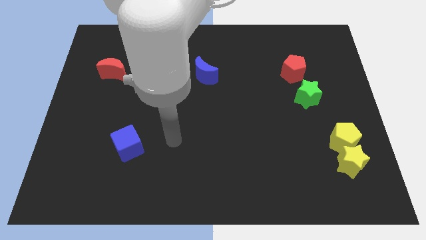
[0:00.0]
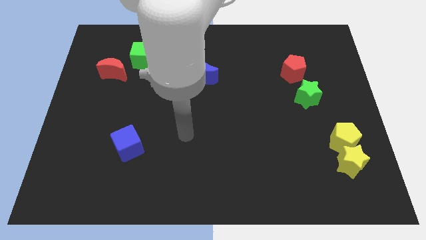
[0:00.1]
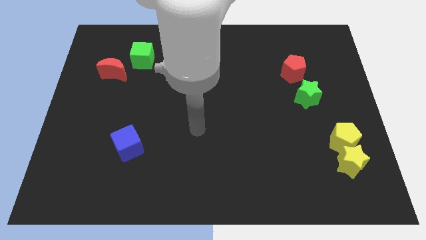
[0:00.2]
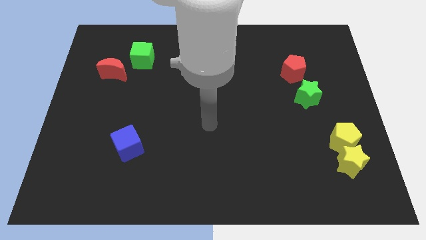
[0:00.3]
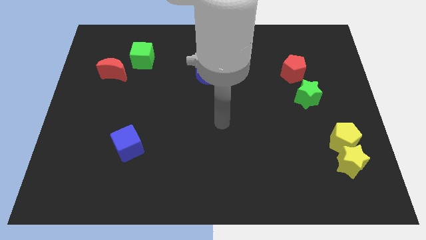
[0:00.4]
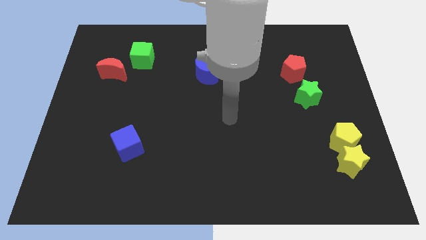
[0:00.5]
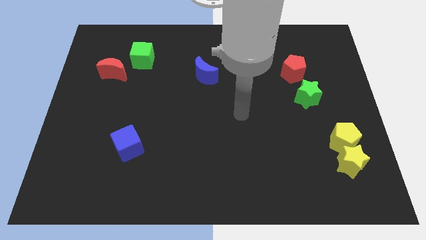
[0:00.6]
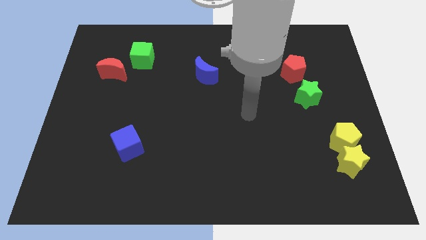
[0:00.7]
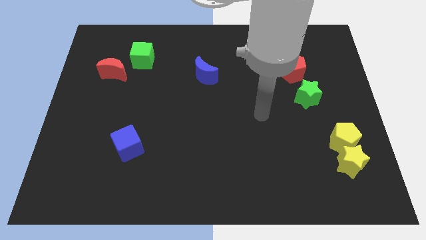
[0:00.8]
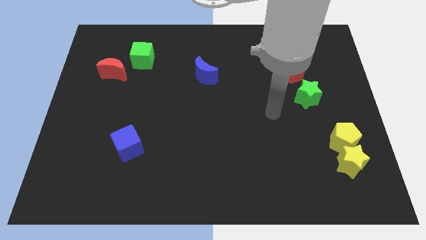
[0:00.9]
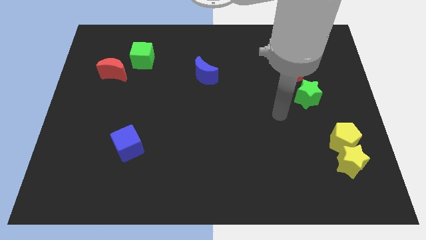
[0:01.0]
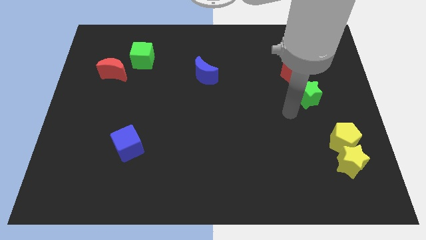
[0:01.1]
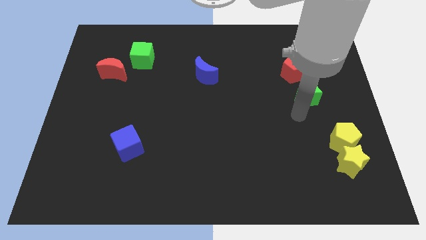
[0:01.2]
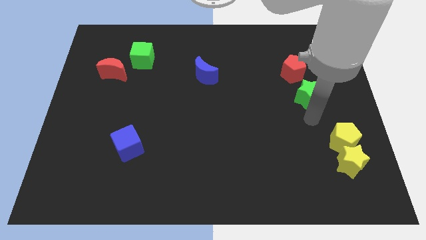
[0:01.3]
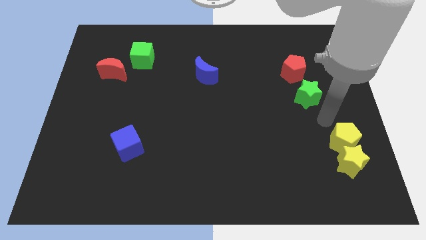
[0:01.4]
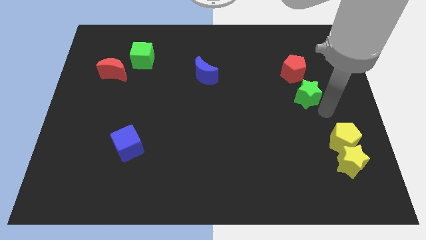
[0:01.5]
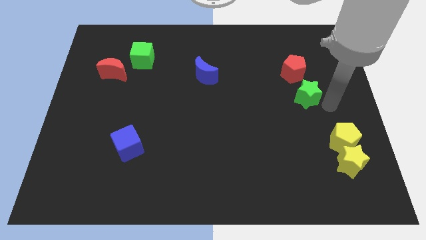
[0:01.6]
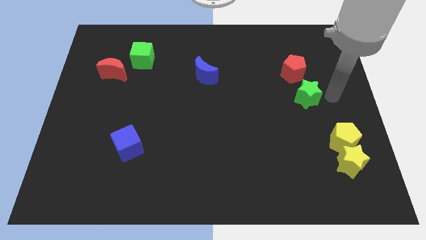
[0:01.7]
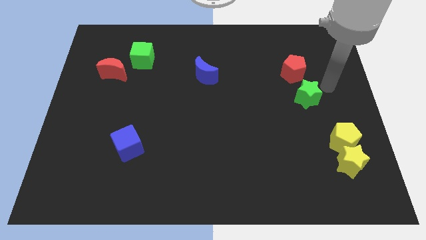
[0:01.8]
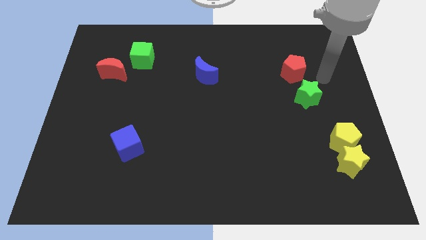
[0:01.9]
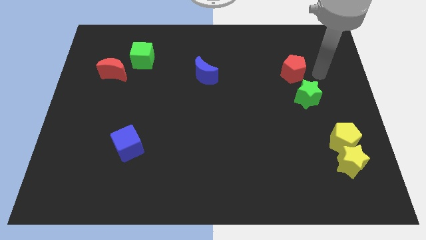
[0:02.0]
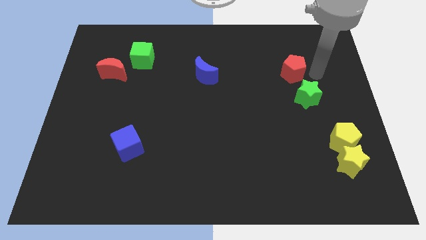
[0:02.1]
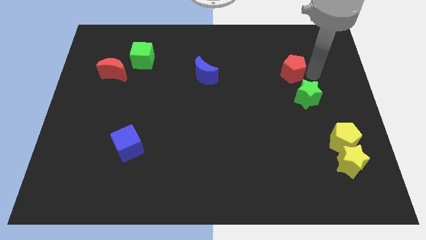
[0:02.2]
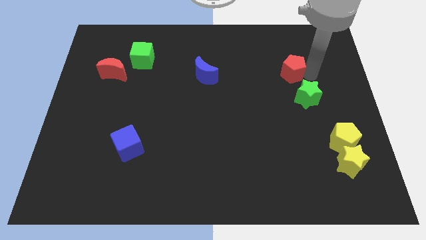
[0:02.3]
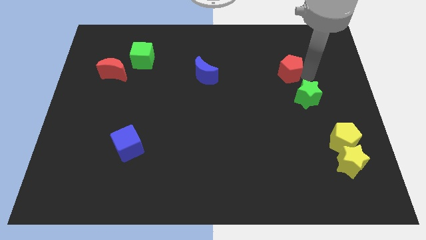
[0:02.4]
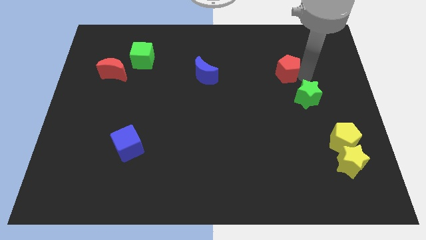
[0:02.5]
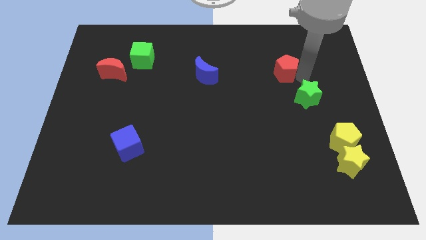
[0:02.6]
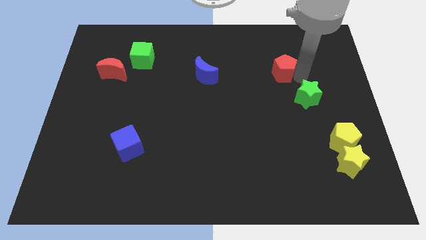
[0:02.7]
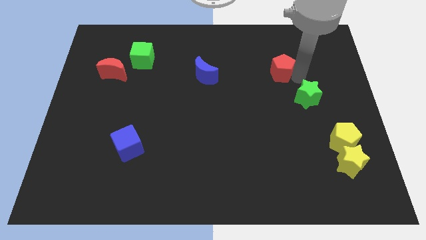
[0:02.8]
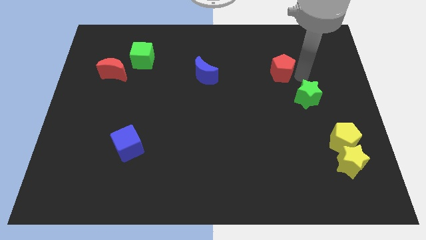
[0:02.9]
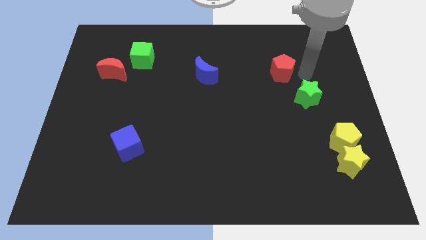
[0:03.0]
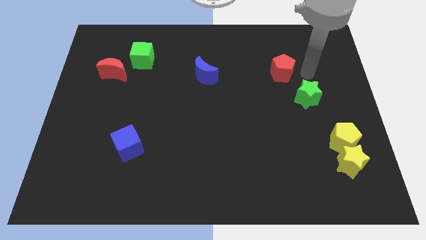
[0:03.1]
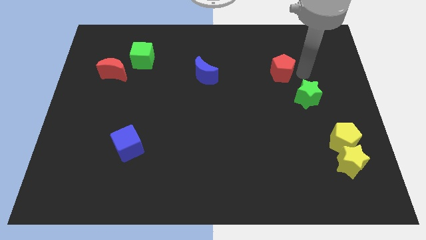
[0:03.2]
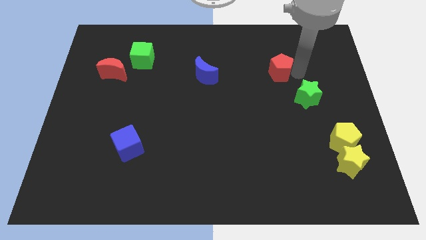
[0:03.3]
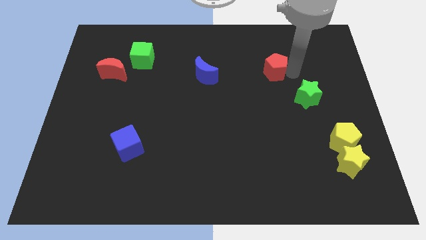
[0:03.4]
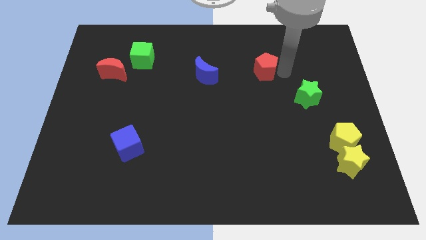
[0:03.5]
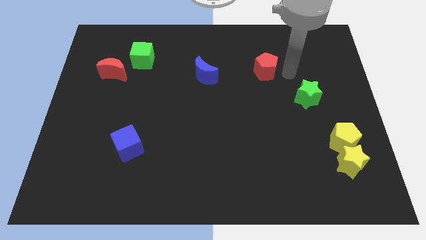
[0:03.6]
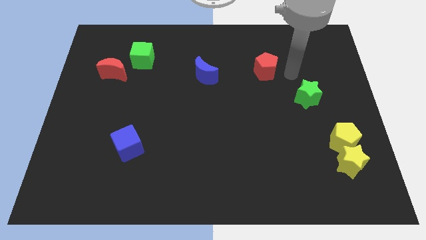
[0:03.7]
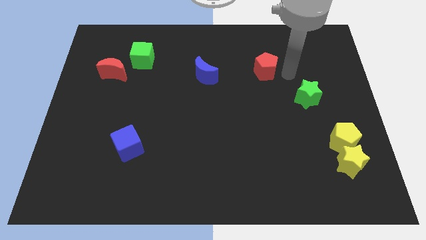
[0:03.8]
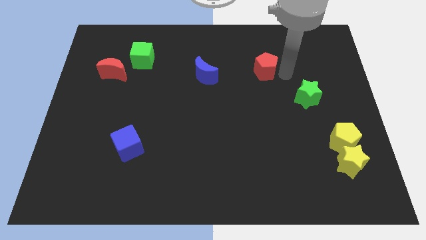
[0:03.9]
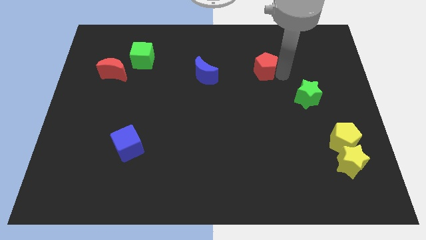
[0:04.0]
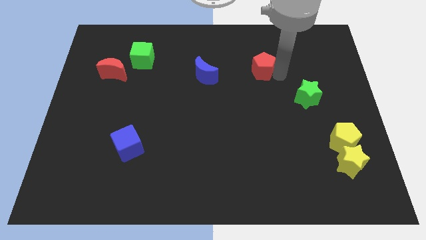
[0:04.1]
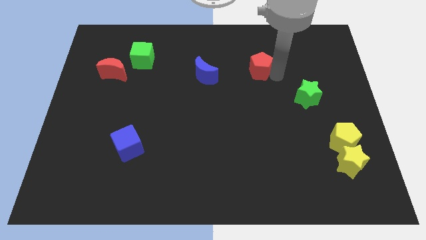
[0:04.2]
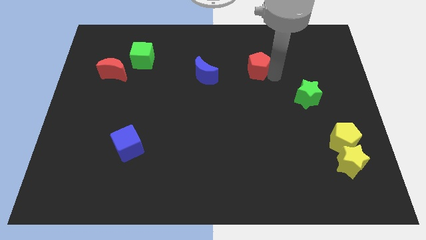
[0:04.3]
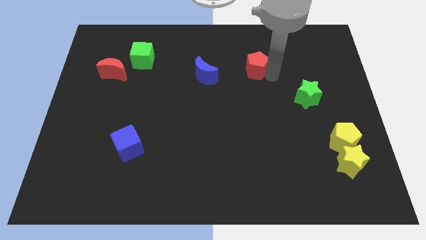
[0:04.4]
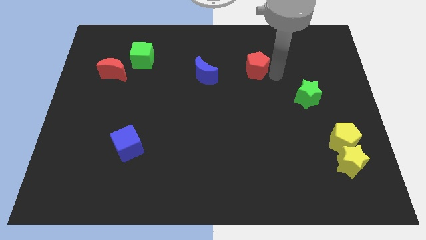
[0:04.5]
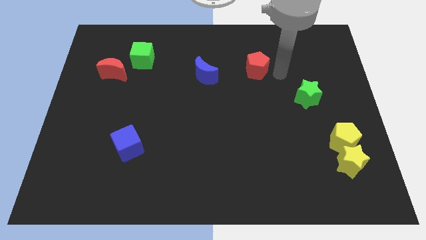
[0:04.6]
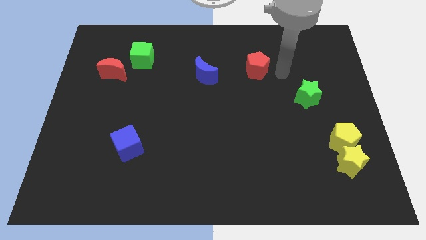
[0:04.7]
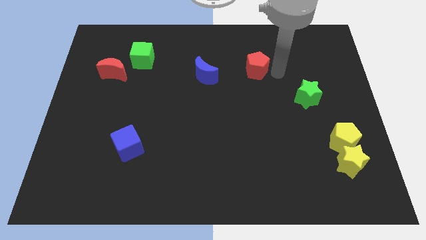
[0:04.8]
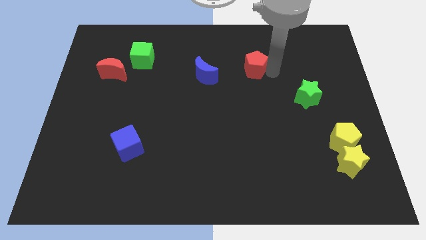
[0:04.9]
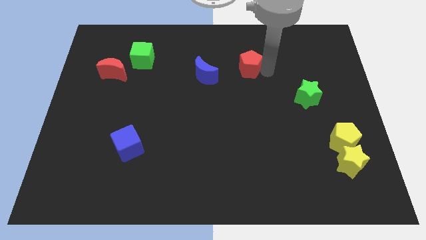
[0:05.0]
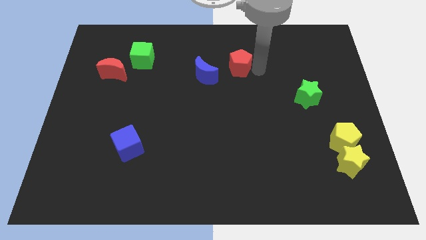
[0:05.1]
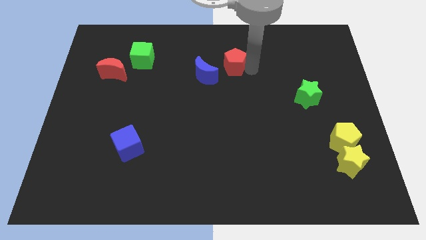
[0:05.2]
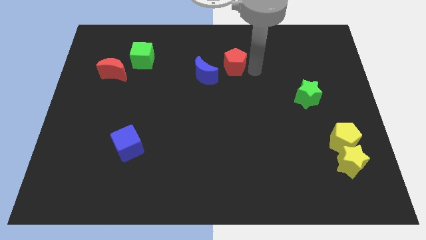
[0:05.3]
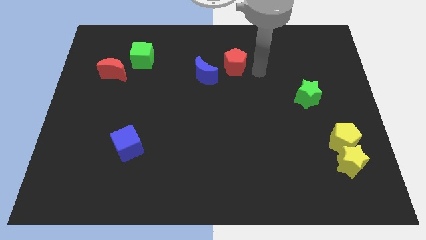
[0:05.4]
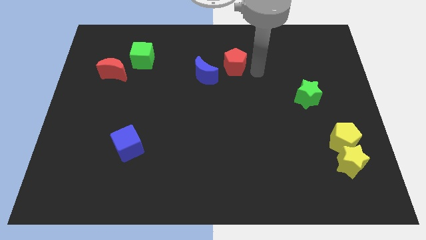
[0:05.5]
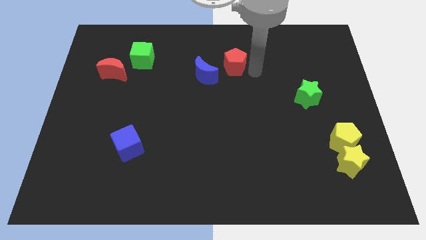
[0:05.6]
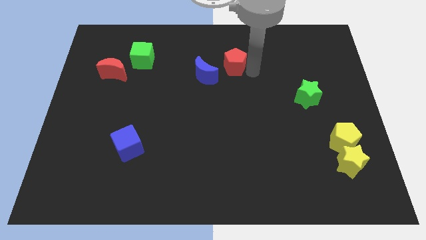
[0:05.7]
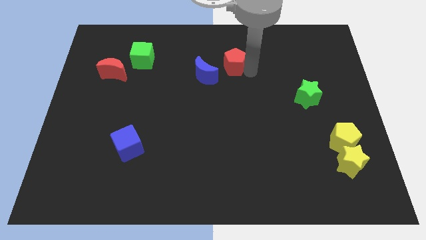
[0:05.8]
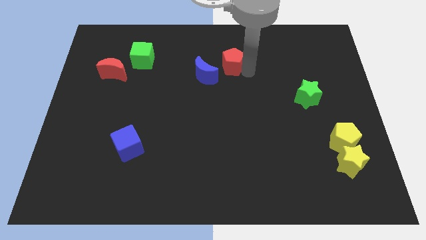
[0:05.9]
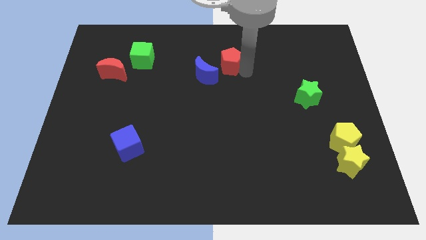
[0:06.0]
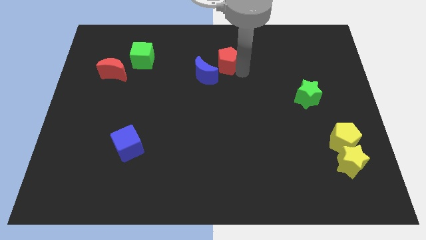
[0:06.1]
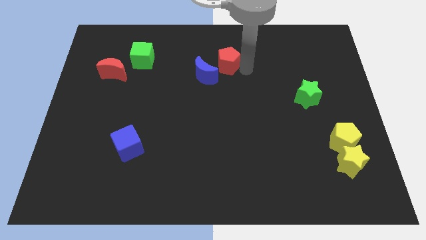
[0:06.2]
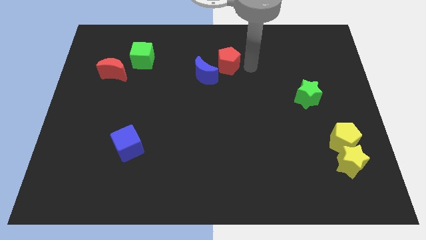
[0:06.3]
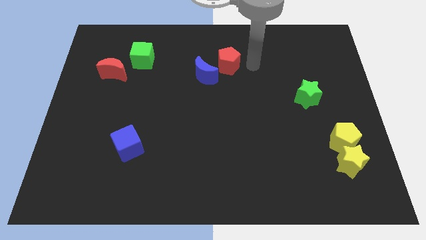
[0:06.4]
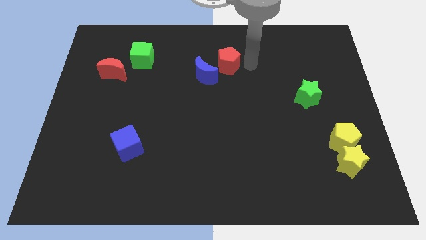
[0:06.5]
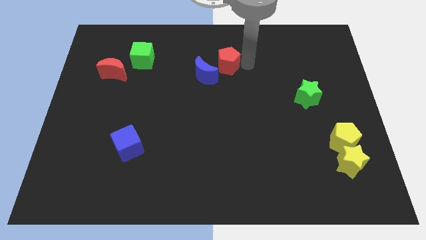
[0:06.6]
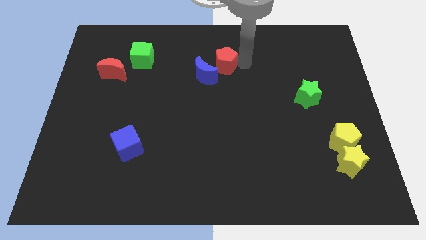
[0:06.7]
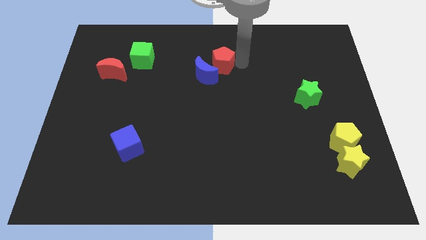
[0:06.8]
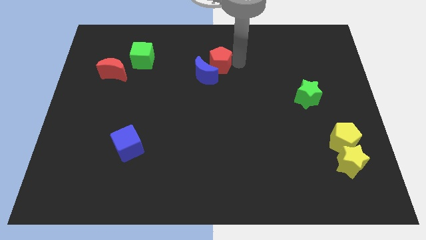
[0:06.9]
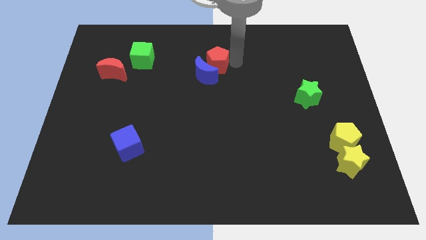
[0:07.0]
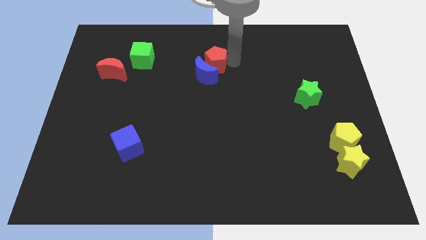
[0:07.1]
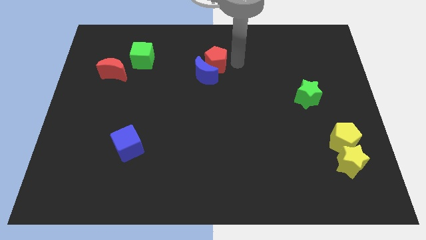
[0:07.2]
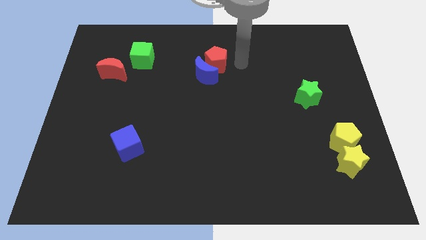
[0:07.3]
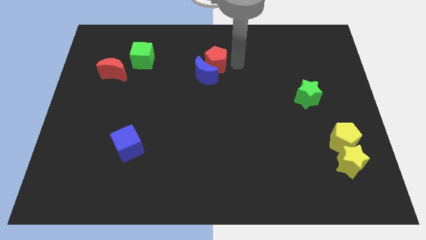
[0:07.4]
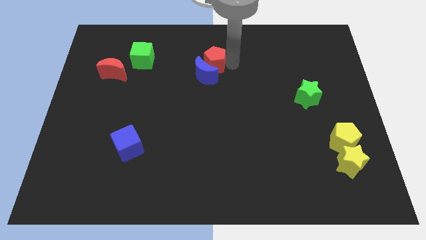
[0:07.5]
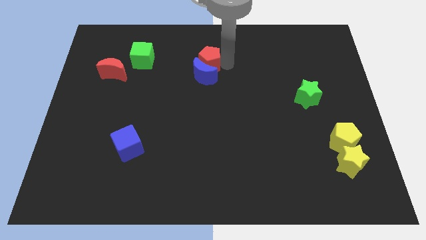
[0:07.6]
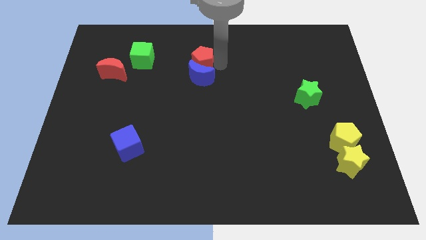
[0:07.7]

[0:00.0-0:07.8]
push the red pentagon to the right side of the green cube

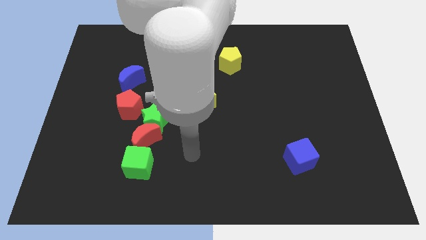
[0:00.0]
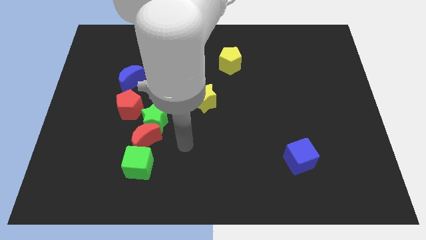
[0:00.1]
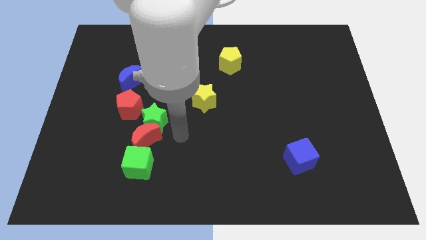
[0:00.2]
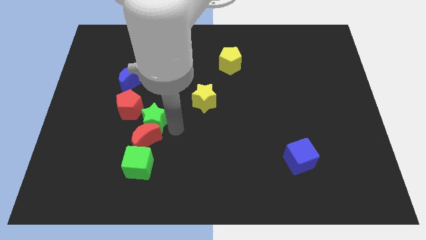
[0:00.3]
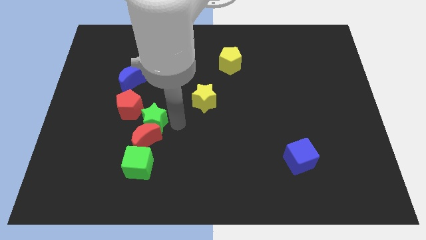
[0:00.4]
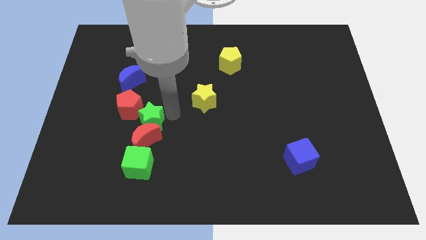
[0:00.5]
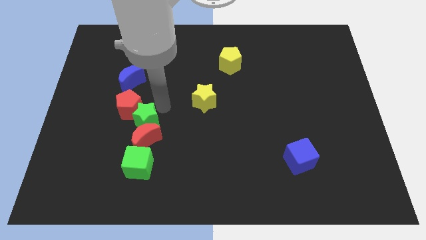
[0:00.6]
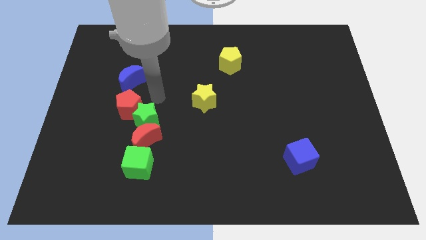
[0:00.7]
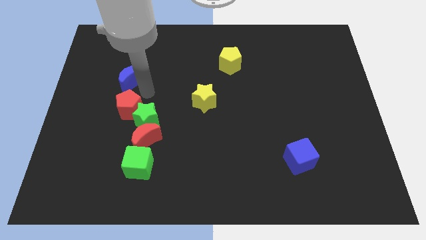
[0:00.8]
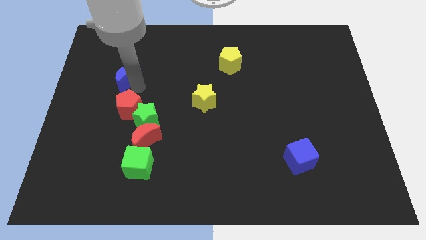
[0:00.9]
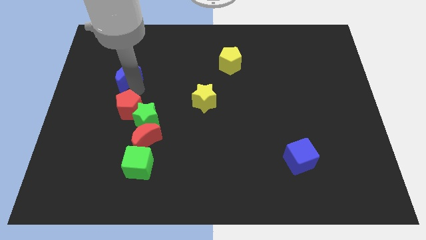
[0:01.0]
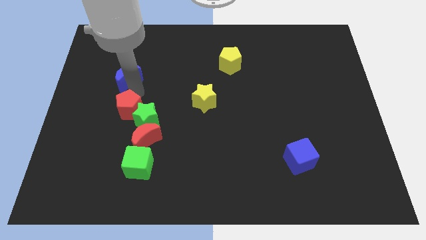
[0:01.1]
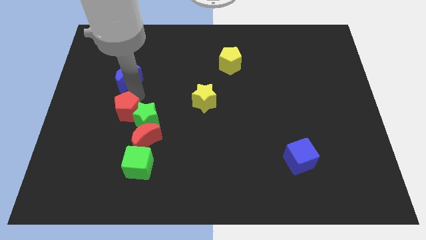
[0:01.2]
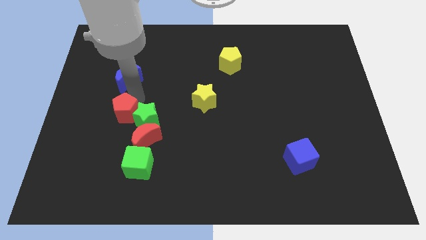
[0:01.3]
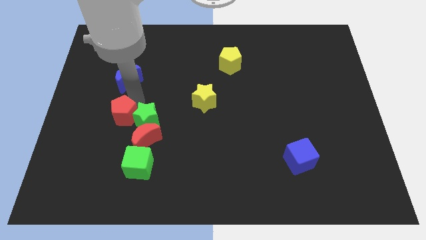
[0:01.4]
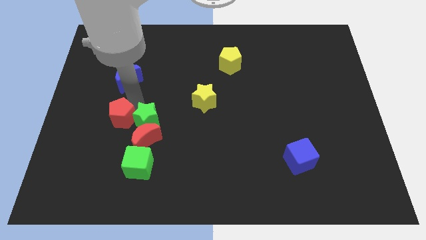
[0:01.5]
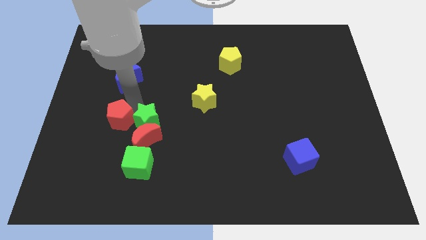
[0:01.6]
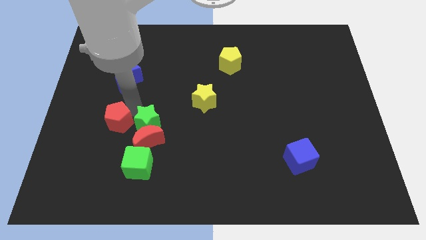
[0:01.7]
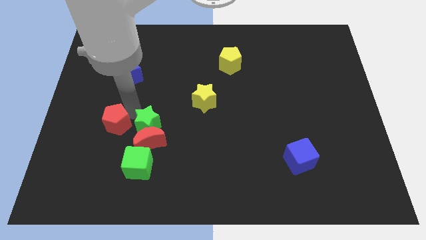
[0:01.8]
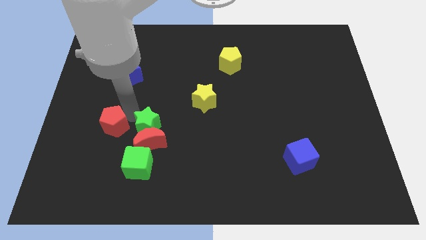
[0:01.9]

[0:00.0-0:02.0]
slide the red pentagon to the top left side of the green cube
